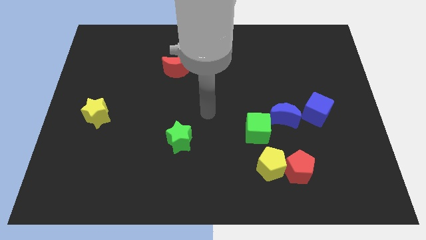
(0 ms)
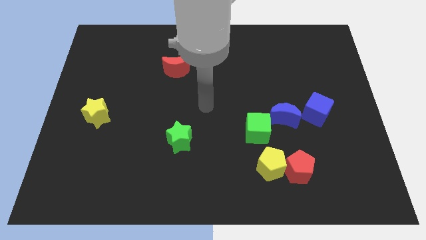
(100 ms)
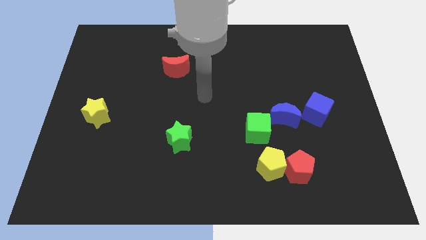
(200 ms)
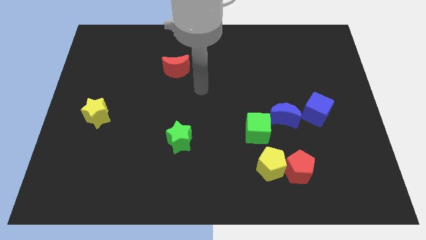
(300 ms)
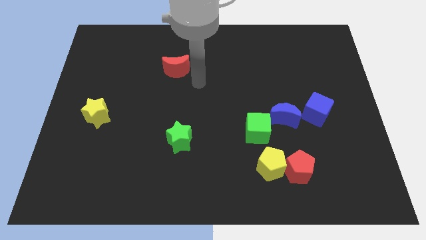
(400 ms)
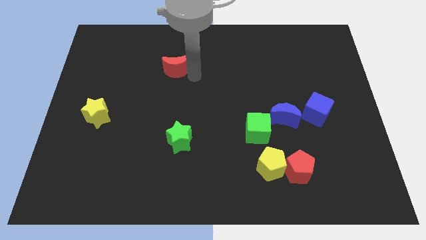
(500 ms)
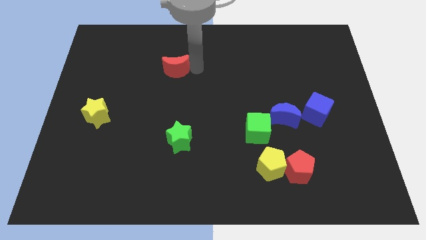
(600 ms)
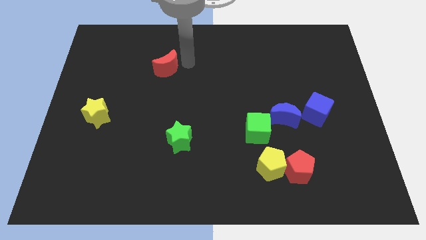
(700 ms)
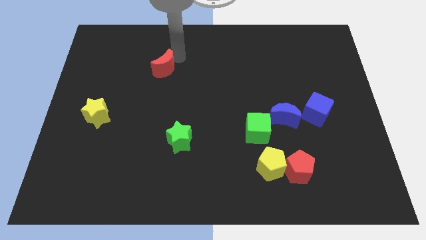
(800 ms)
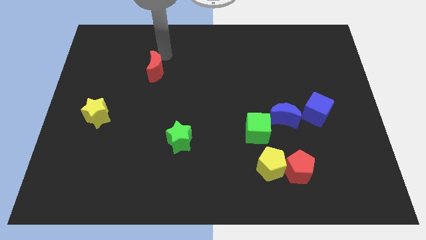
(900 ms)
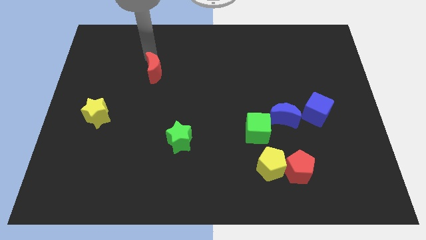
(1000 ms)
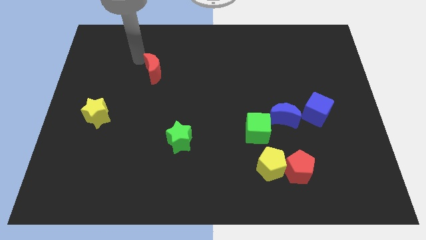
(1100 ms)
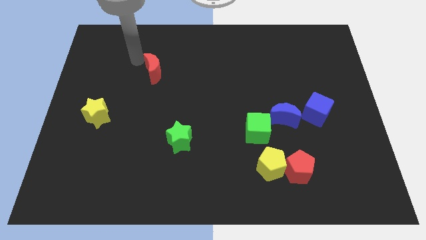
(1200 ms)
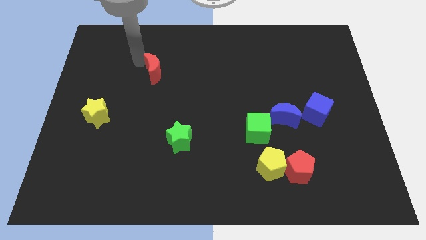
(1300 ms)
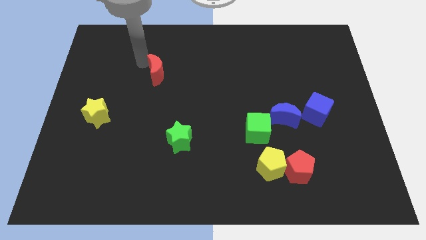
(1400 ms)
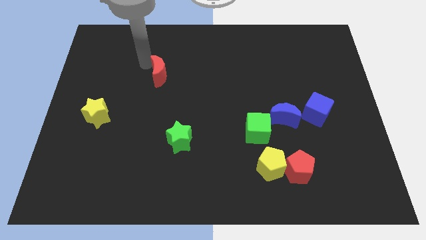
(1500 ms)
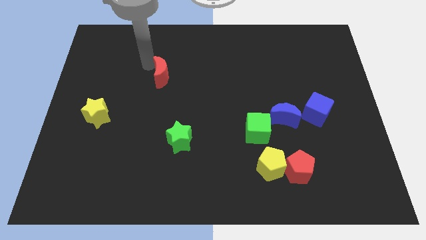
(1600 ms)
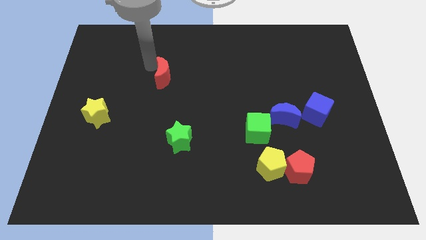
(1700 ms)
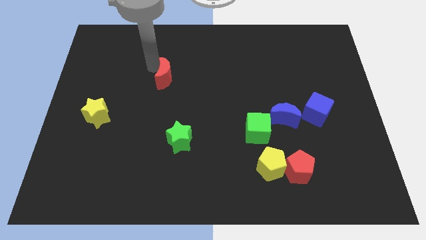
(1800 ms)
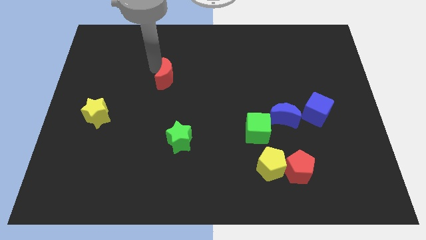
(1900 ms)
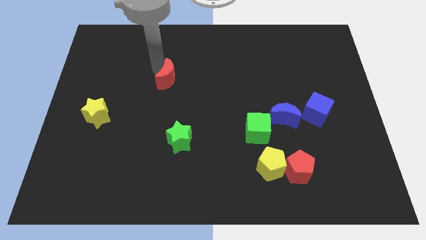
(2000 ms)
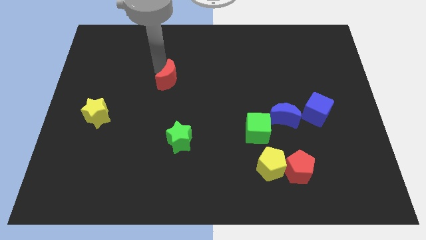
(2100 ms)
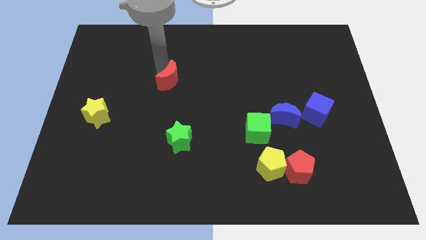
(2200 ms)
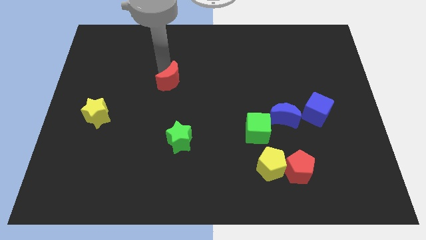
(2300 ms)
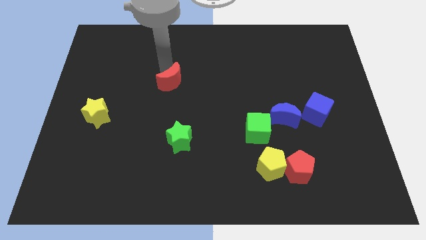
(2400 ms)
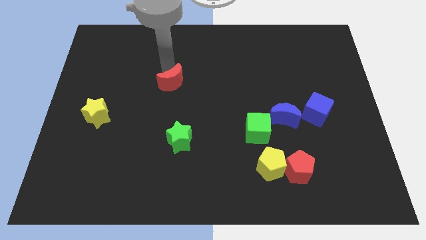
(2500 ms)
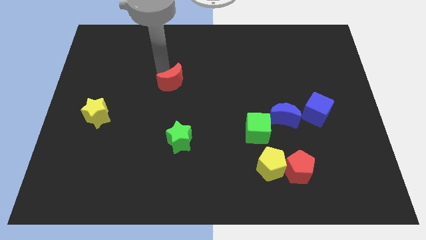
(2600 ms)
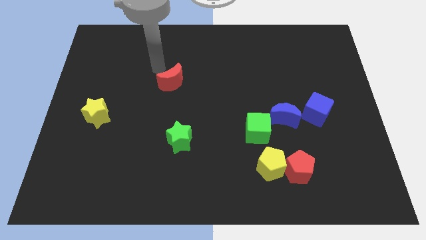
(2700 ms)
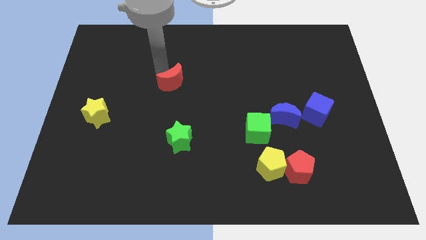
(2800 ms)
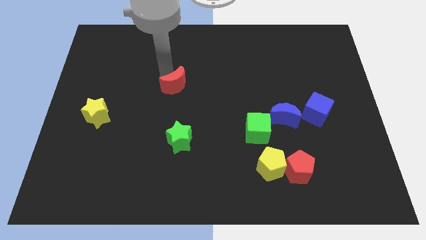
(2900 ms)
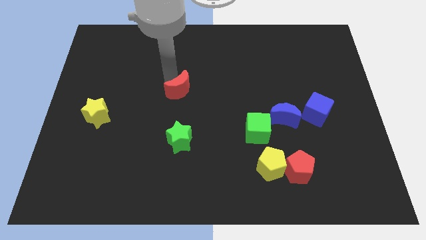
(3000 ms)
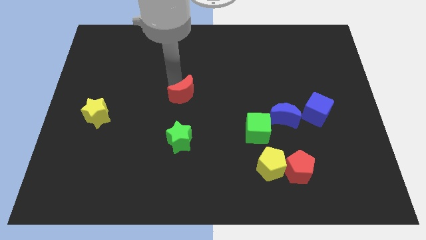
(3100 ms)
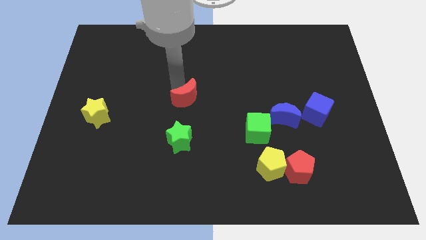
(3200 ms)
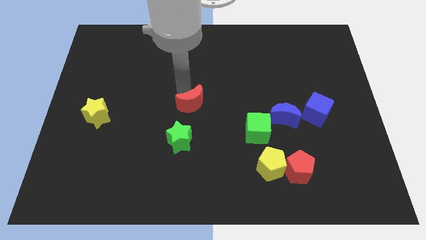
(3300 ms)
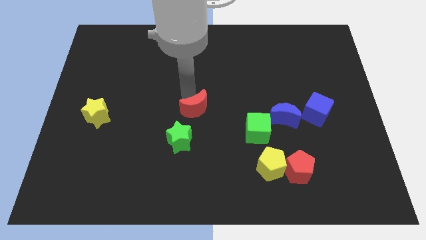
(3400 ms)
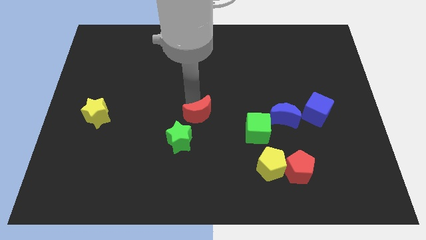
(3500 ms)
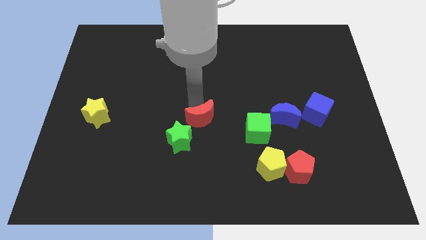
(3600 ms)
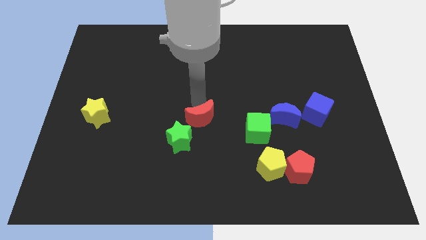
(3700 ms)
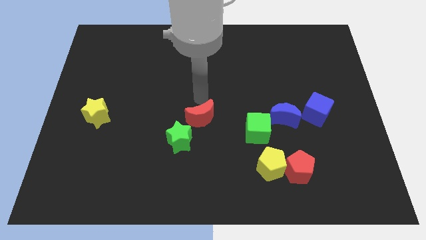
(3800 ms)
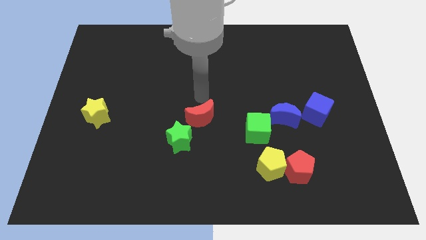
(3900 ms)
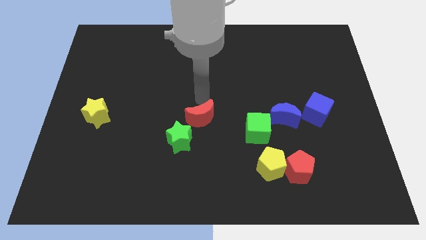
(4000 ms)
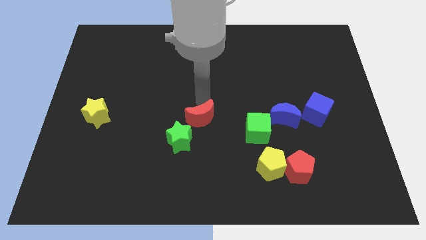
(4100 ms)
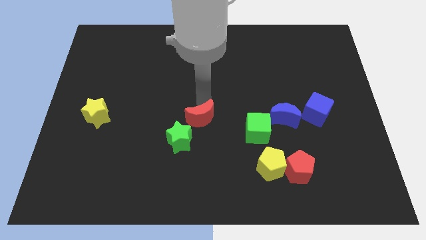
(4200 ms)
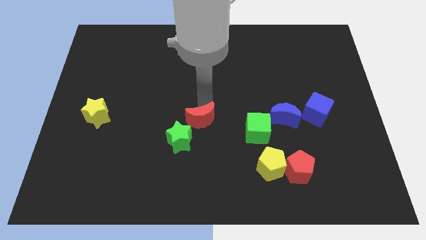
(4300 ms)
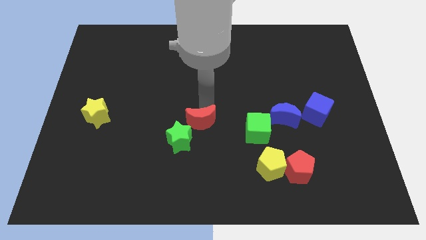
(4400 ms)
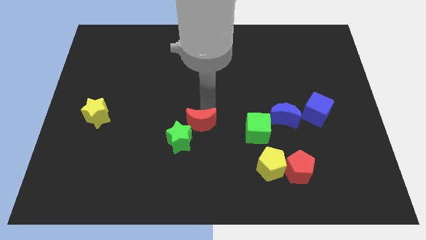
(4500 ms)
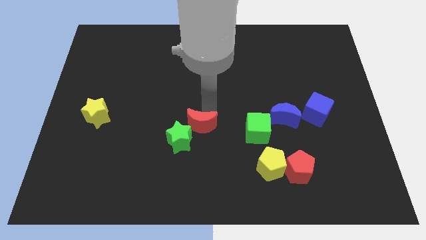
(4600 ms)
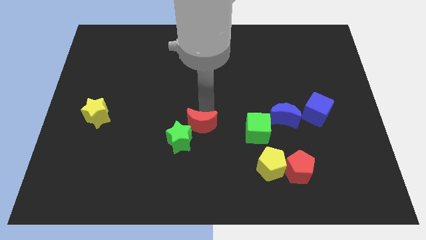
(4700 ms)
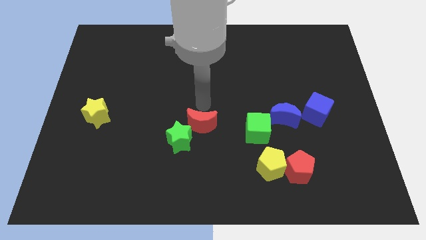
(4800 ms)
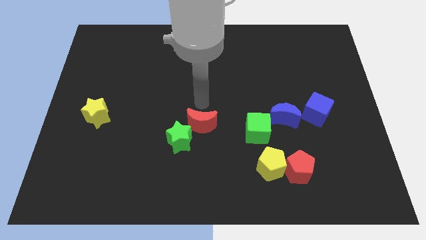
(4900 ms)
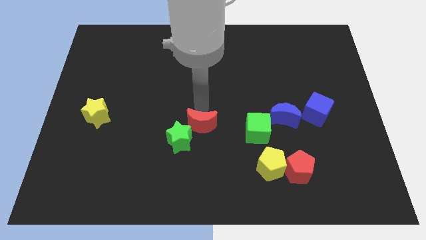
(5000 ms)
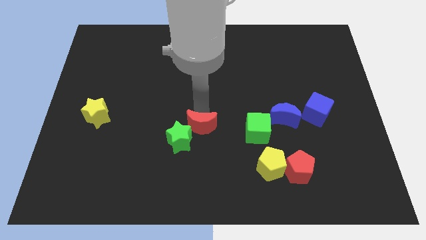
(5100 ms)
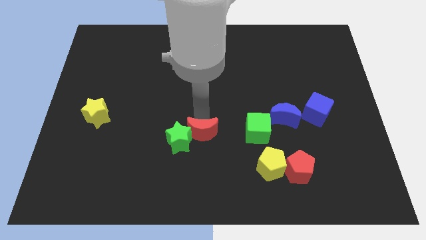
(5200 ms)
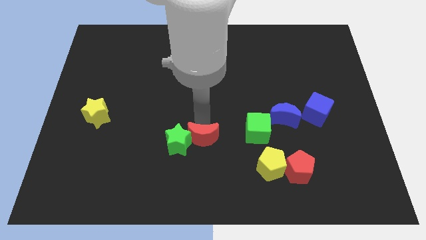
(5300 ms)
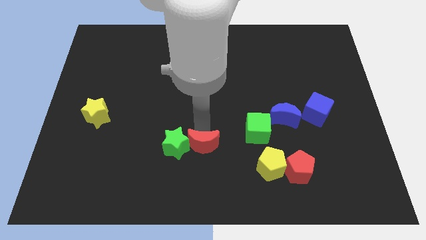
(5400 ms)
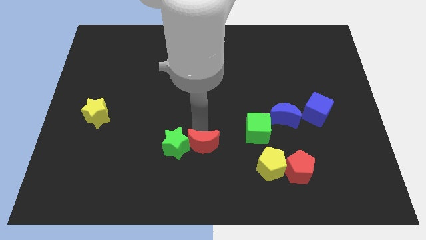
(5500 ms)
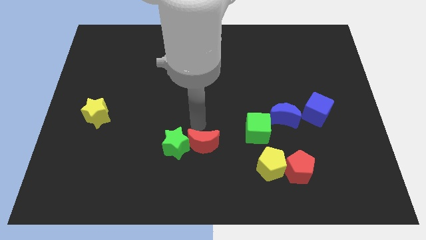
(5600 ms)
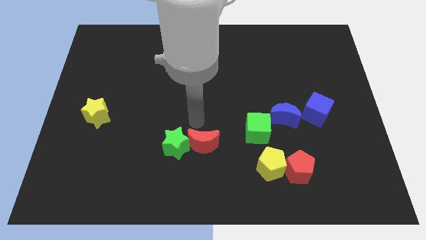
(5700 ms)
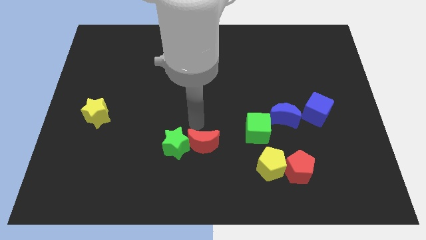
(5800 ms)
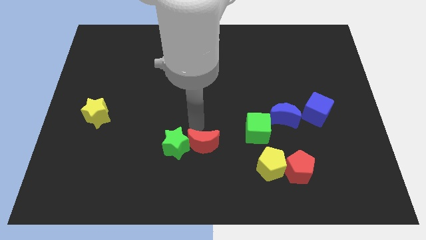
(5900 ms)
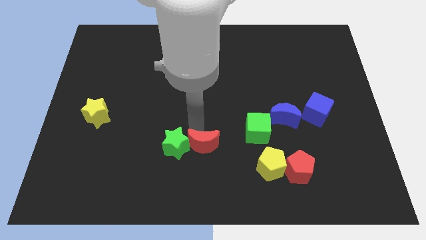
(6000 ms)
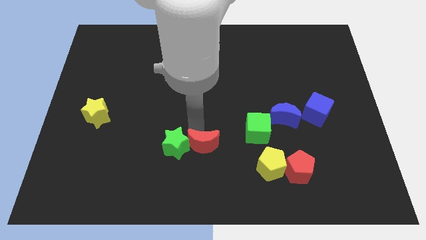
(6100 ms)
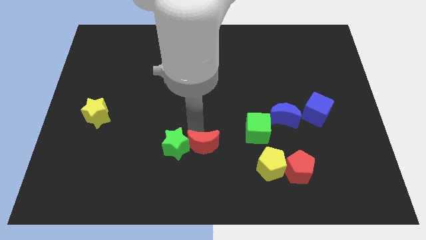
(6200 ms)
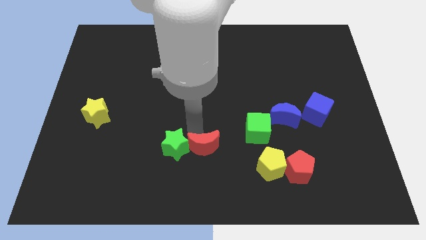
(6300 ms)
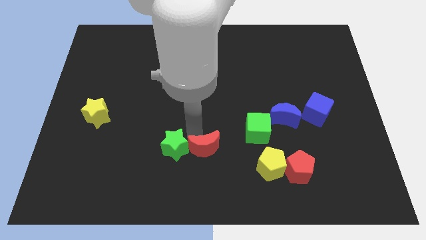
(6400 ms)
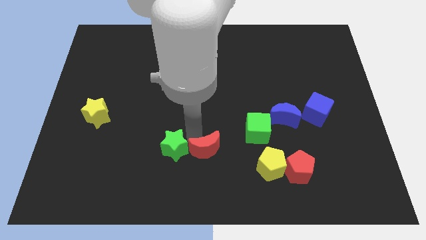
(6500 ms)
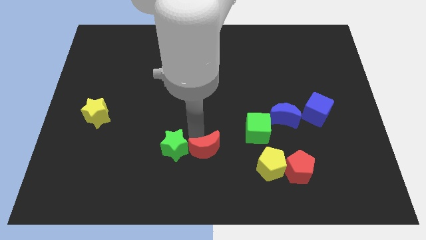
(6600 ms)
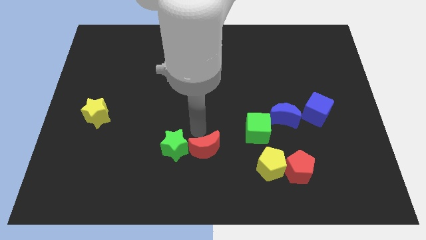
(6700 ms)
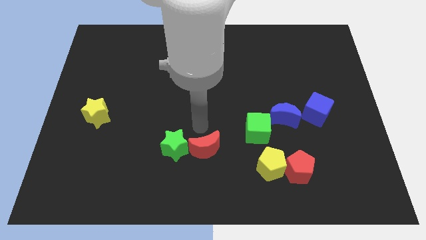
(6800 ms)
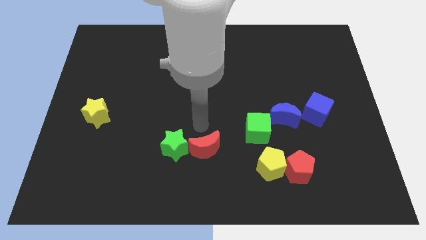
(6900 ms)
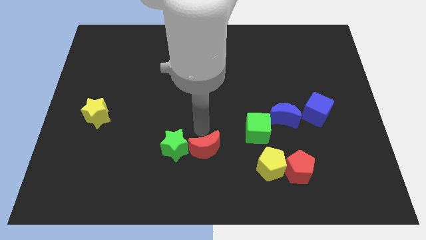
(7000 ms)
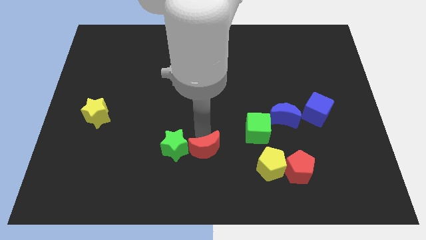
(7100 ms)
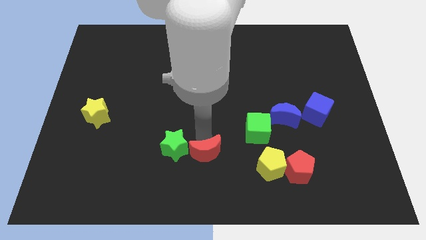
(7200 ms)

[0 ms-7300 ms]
slide the red moon to the bottom side
